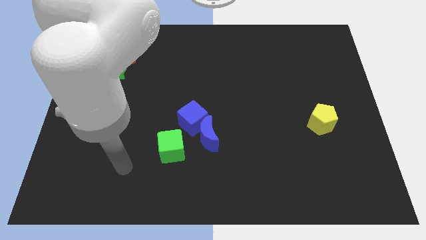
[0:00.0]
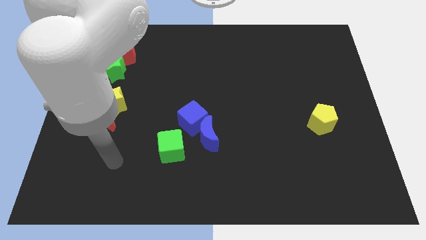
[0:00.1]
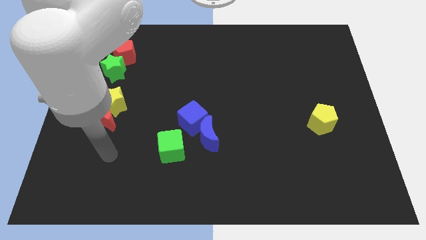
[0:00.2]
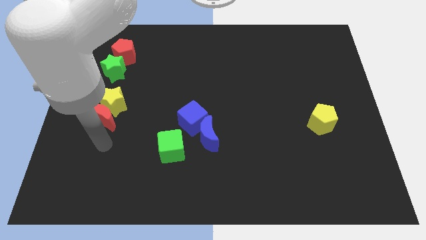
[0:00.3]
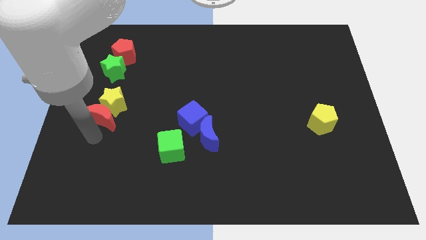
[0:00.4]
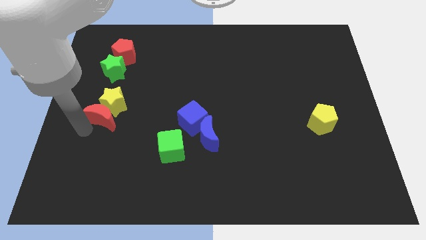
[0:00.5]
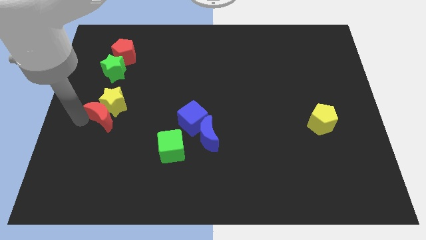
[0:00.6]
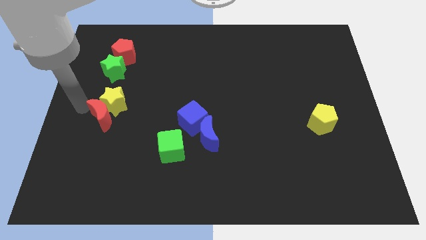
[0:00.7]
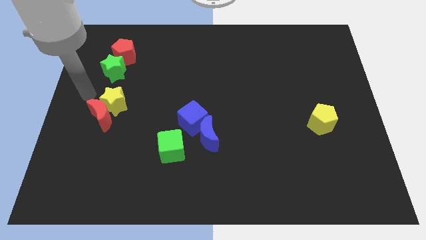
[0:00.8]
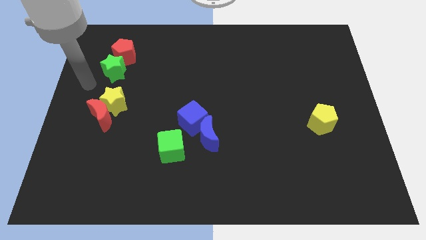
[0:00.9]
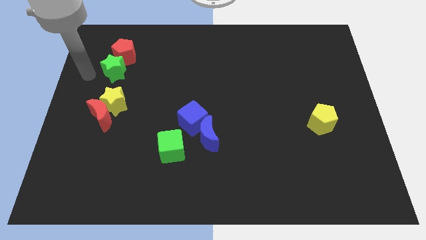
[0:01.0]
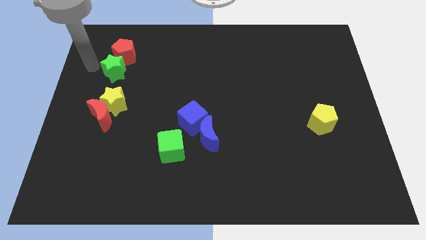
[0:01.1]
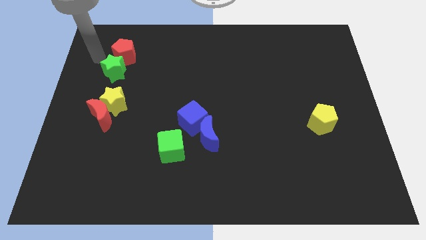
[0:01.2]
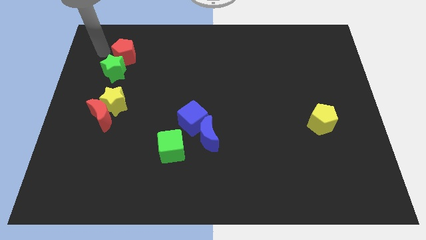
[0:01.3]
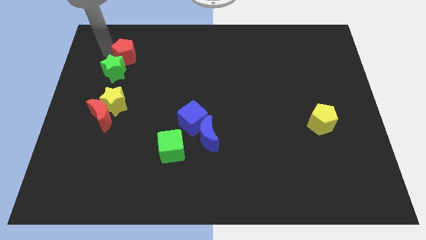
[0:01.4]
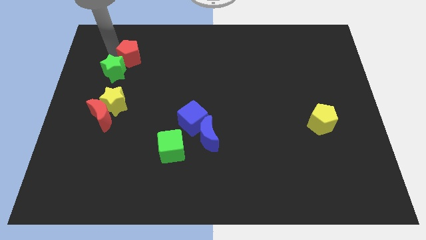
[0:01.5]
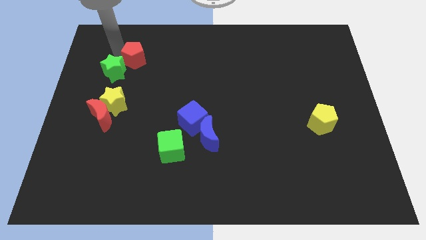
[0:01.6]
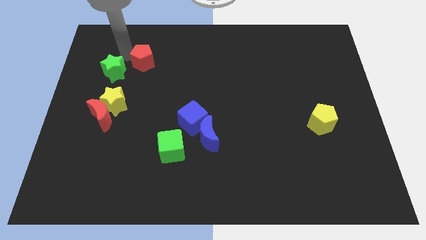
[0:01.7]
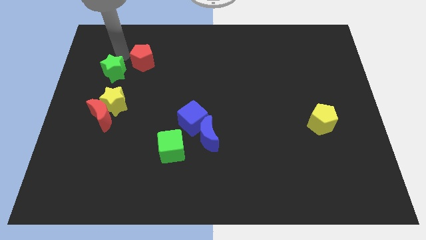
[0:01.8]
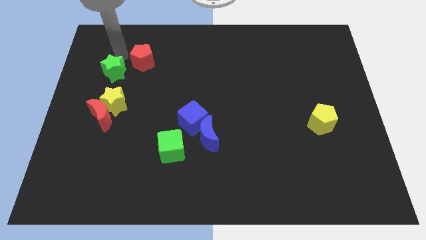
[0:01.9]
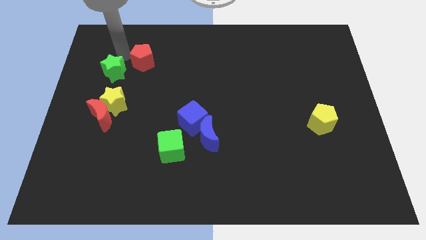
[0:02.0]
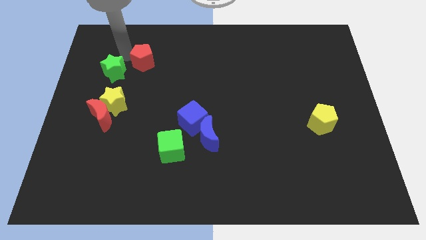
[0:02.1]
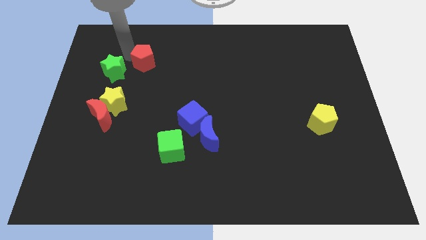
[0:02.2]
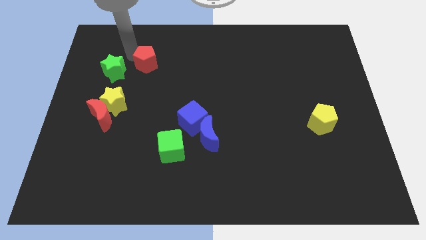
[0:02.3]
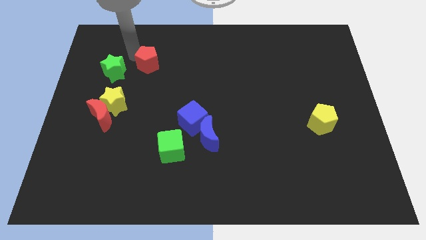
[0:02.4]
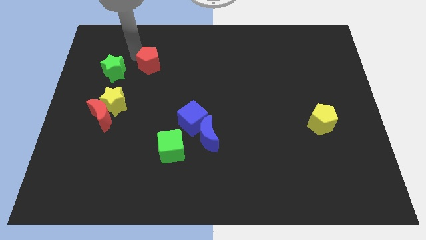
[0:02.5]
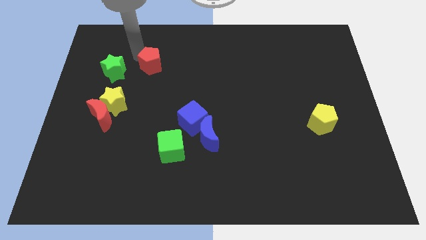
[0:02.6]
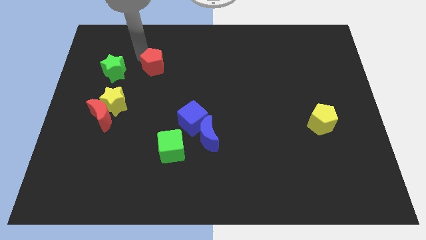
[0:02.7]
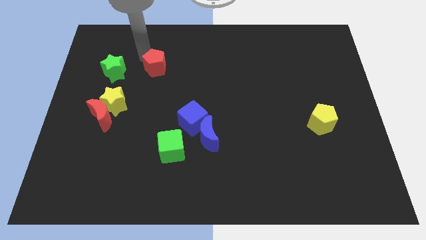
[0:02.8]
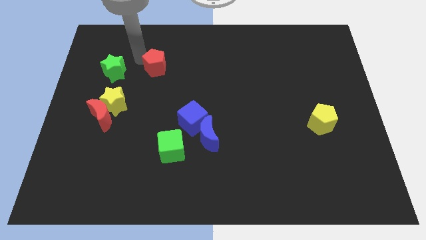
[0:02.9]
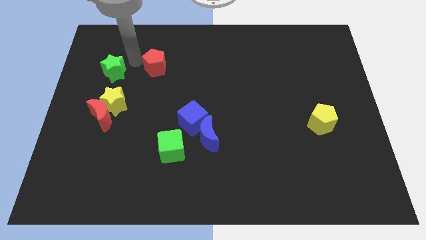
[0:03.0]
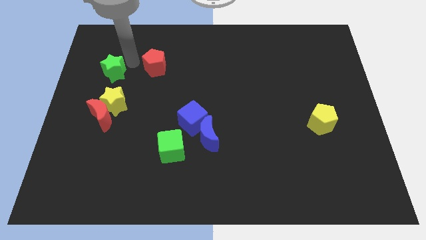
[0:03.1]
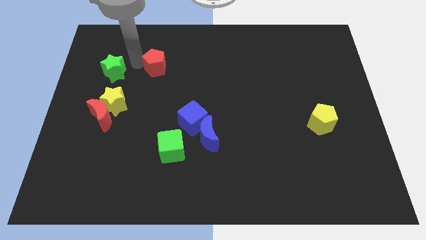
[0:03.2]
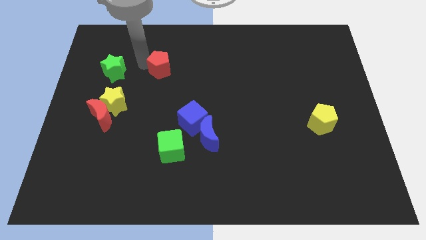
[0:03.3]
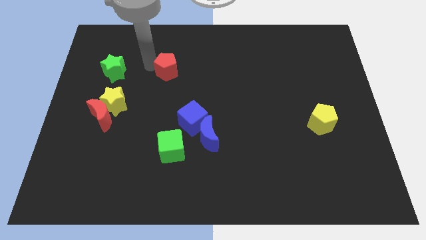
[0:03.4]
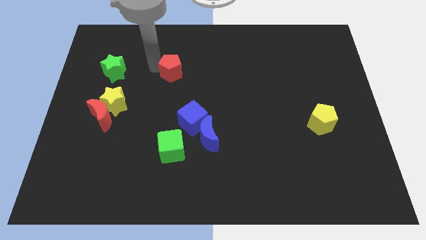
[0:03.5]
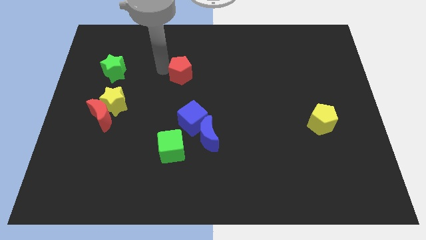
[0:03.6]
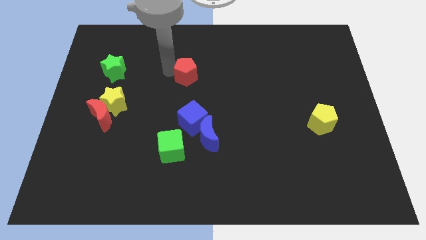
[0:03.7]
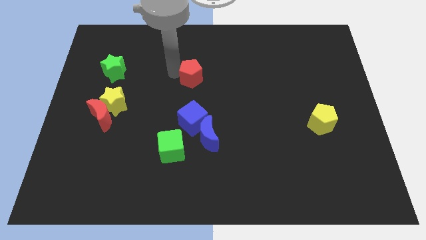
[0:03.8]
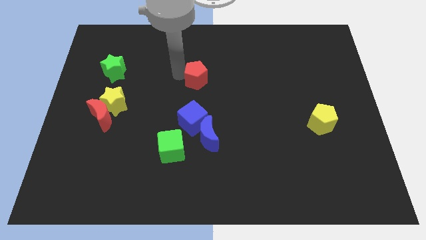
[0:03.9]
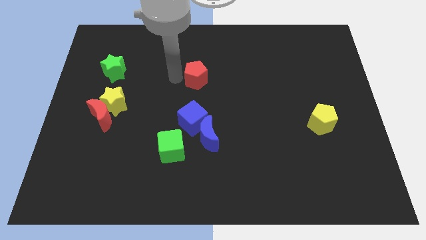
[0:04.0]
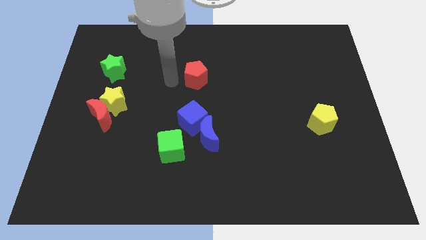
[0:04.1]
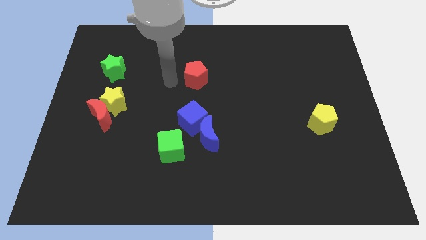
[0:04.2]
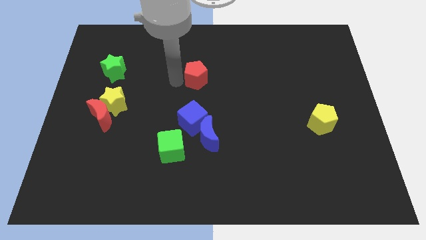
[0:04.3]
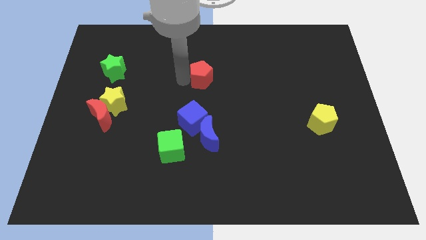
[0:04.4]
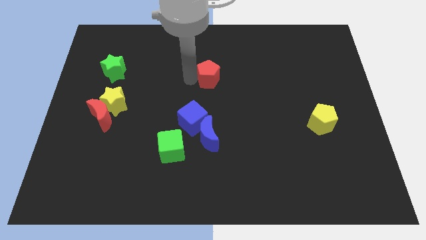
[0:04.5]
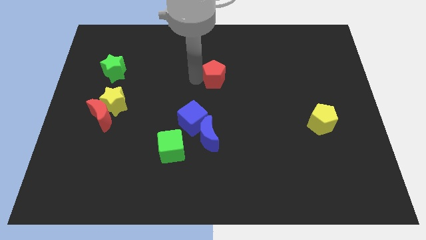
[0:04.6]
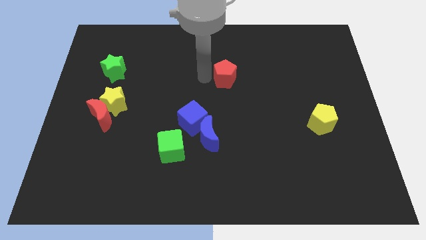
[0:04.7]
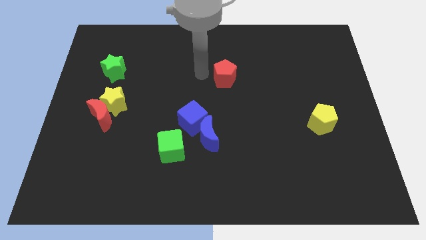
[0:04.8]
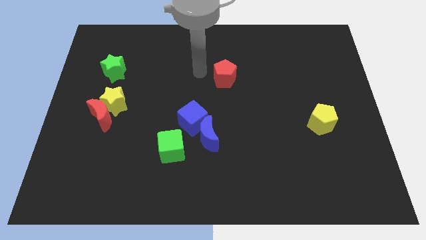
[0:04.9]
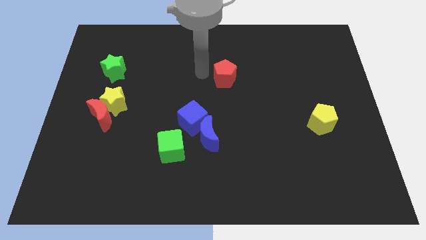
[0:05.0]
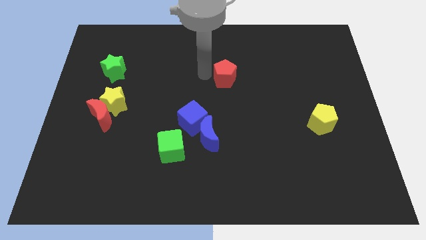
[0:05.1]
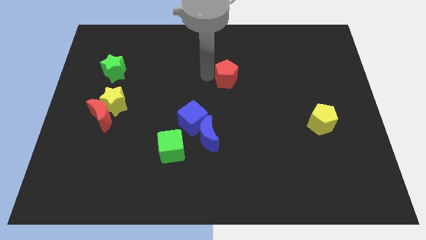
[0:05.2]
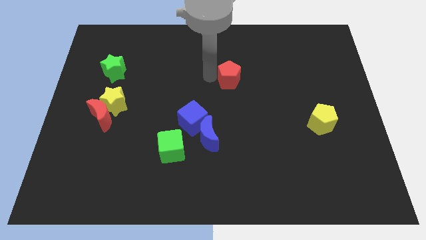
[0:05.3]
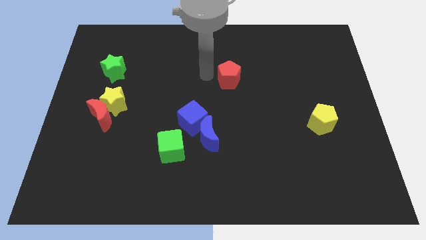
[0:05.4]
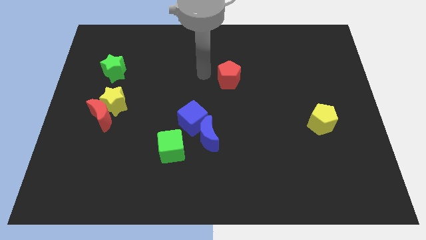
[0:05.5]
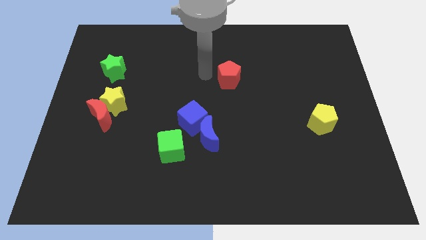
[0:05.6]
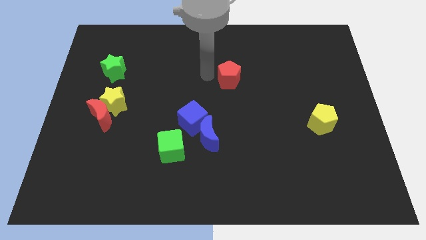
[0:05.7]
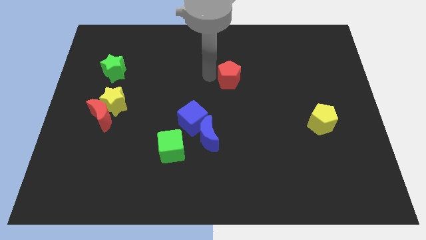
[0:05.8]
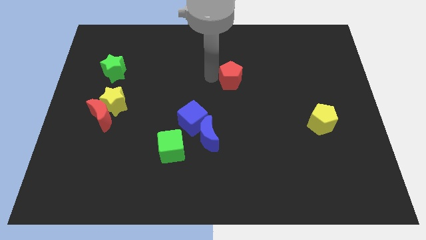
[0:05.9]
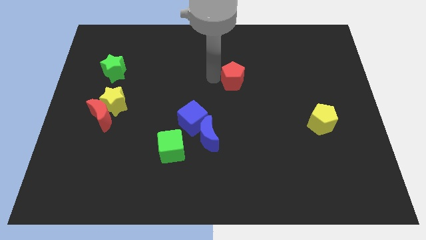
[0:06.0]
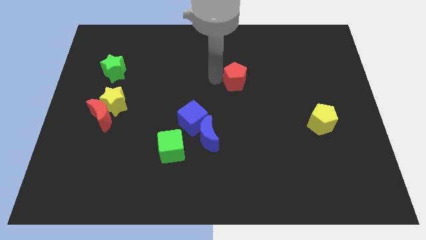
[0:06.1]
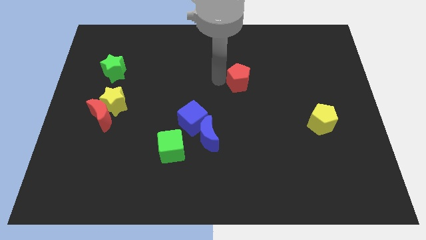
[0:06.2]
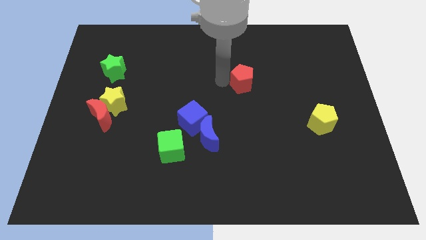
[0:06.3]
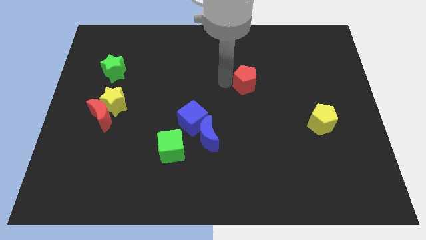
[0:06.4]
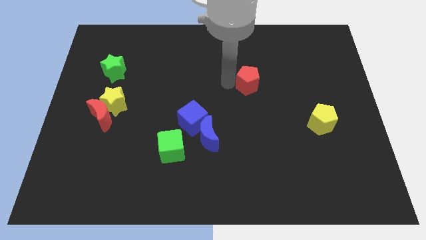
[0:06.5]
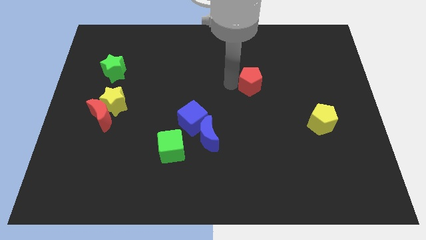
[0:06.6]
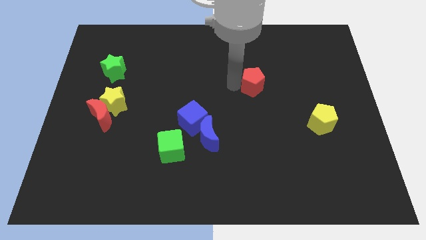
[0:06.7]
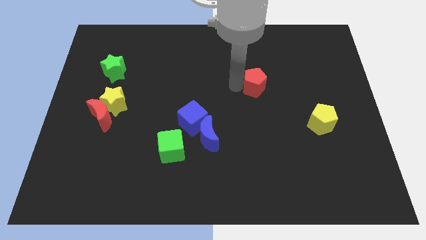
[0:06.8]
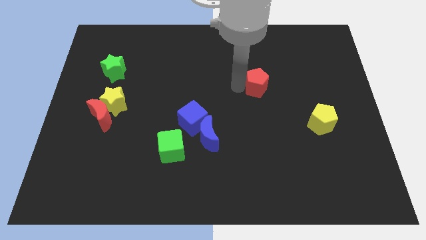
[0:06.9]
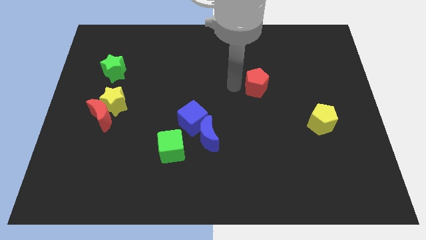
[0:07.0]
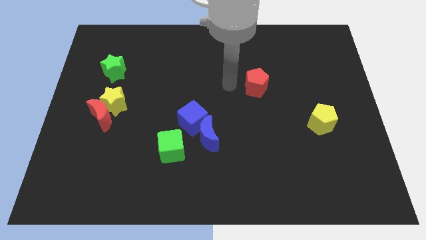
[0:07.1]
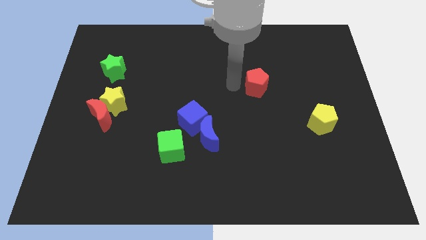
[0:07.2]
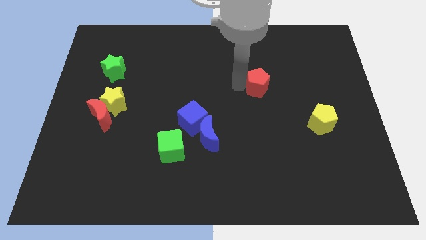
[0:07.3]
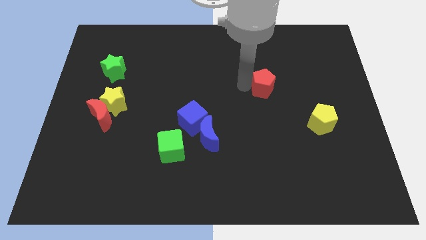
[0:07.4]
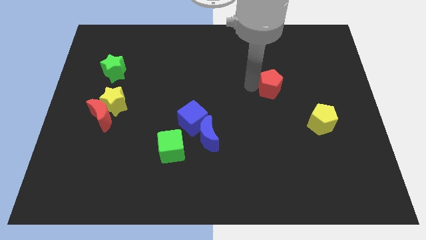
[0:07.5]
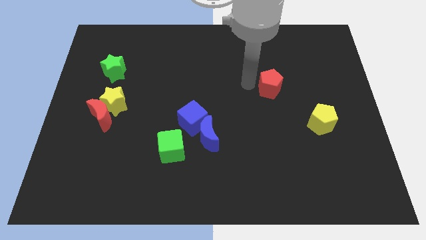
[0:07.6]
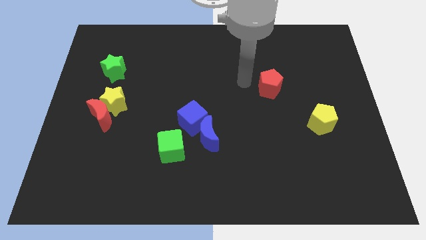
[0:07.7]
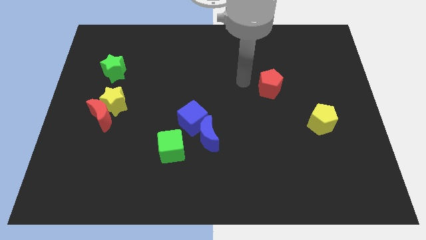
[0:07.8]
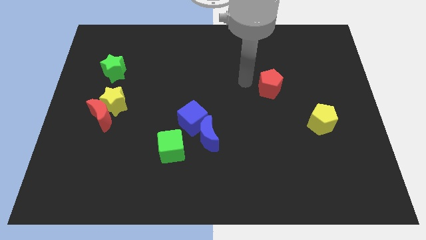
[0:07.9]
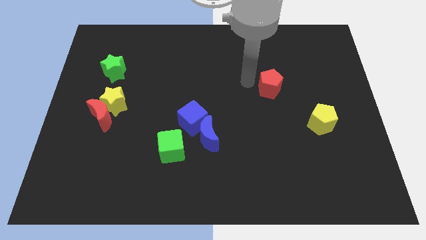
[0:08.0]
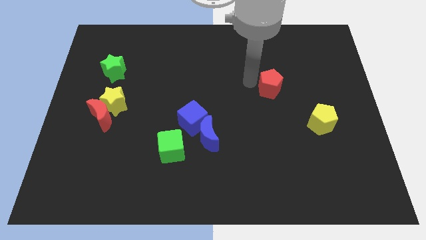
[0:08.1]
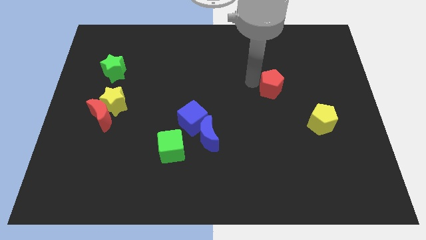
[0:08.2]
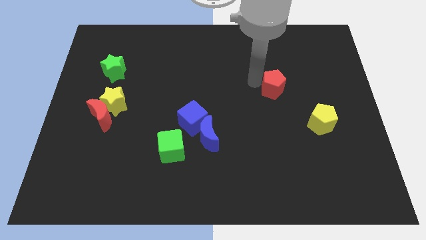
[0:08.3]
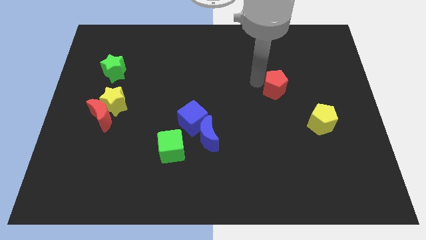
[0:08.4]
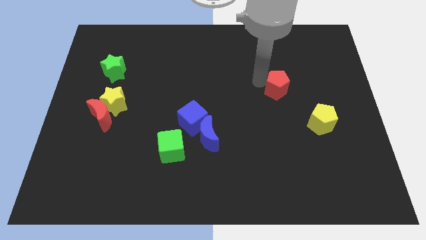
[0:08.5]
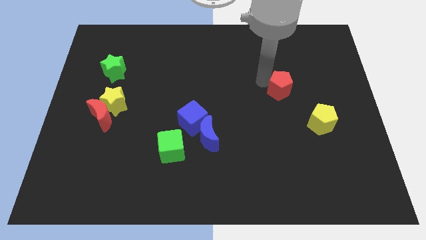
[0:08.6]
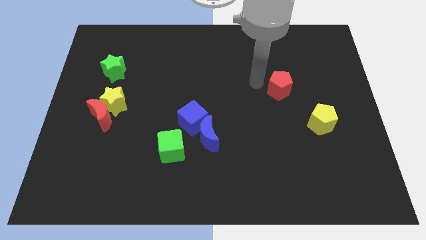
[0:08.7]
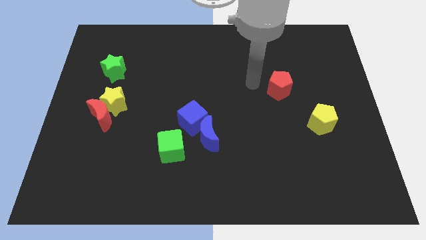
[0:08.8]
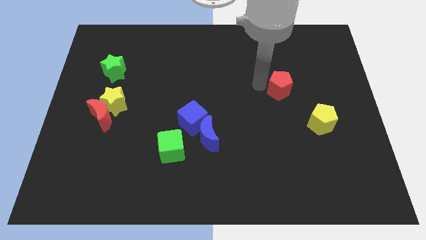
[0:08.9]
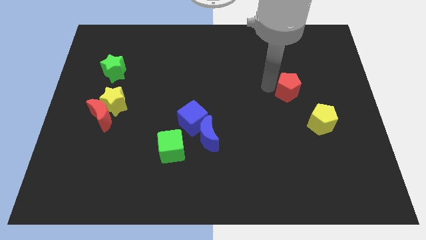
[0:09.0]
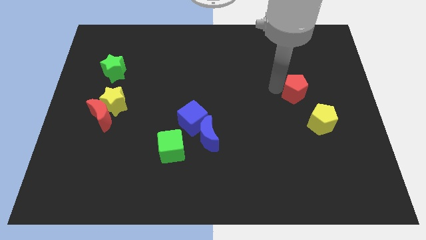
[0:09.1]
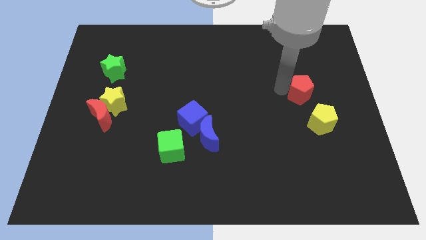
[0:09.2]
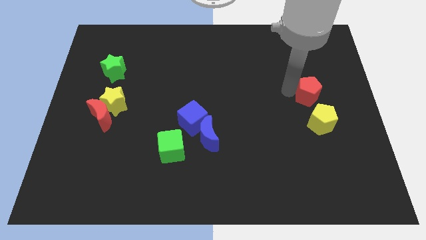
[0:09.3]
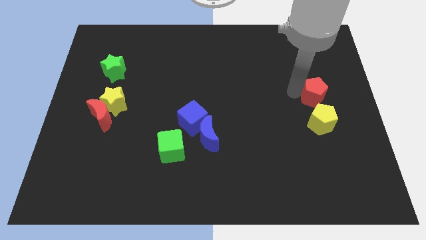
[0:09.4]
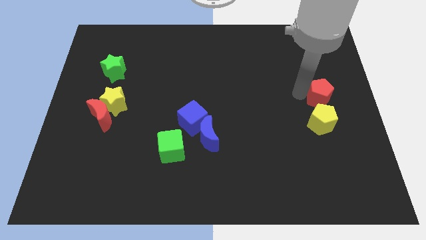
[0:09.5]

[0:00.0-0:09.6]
move the red pentagon to the right side
